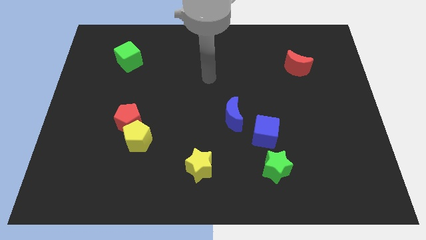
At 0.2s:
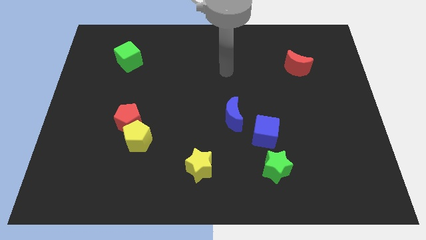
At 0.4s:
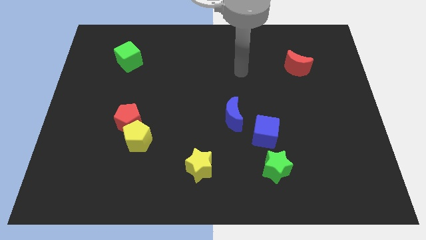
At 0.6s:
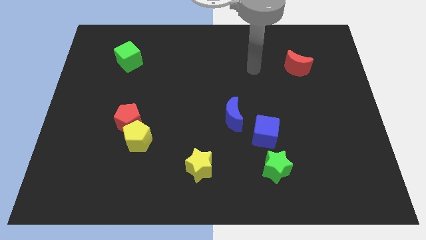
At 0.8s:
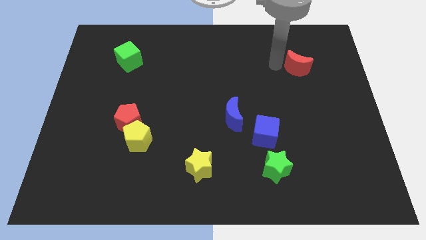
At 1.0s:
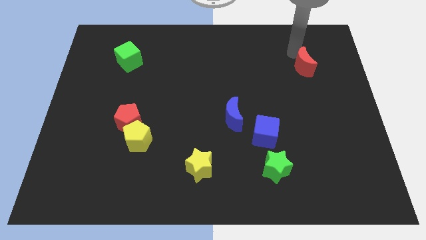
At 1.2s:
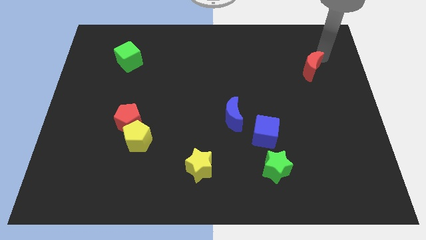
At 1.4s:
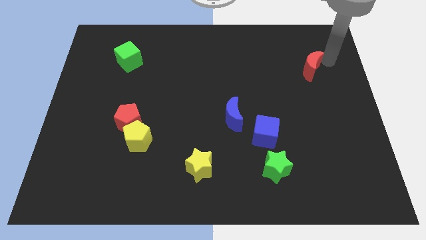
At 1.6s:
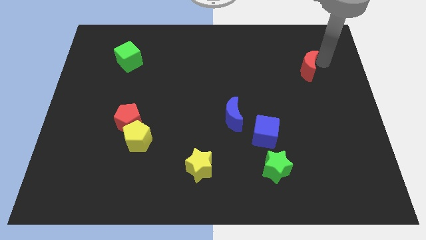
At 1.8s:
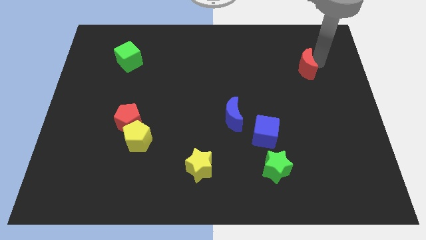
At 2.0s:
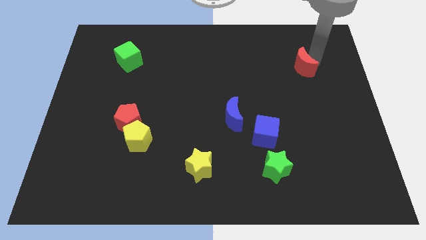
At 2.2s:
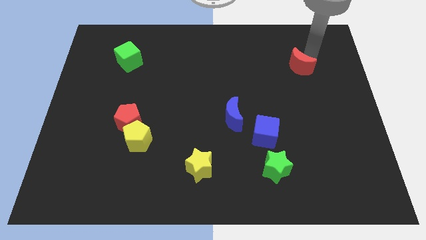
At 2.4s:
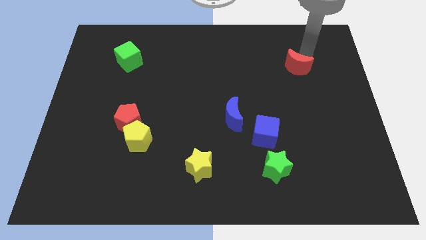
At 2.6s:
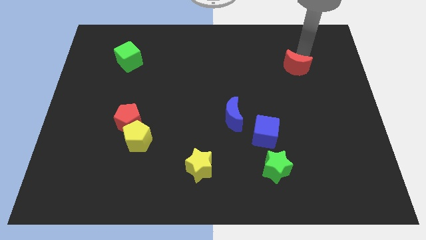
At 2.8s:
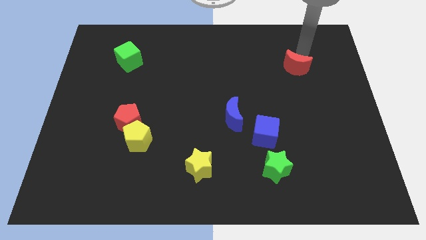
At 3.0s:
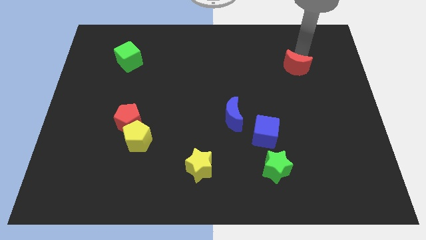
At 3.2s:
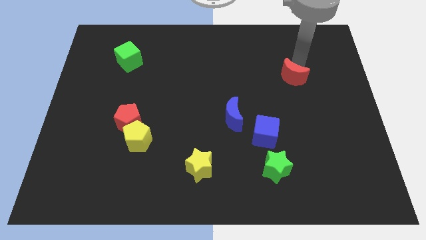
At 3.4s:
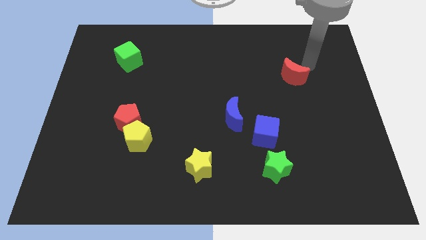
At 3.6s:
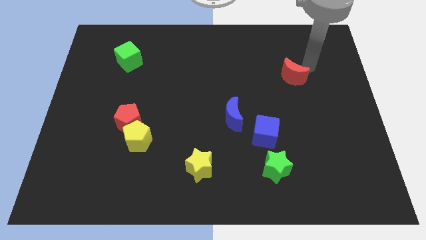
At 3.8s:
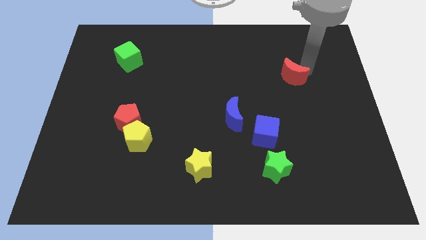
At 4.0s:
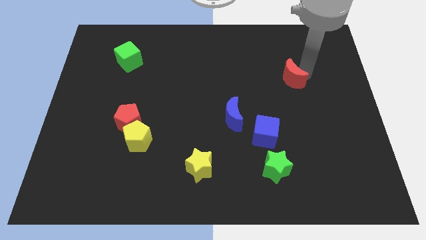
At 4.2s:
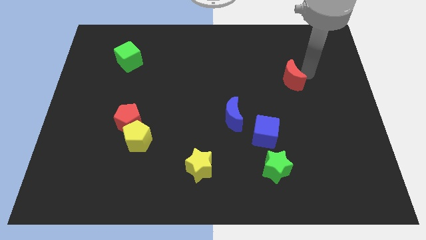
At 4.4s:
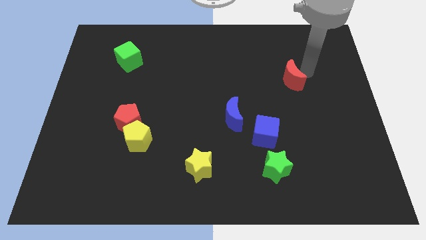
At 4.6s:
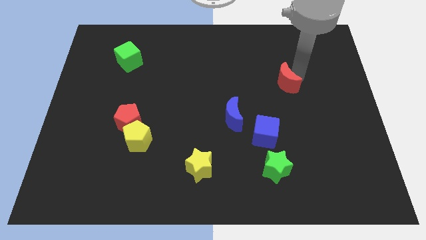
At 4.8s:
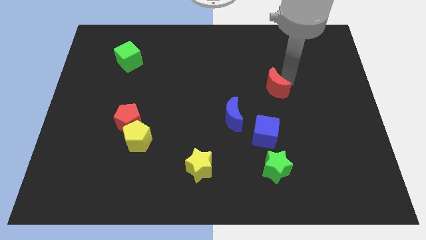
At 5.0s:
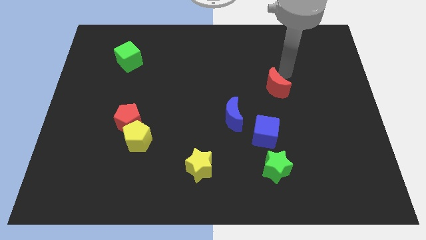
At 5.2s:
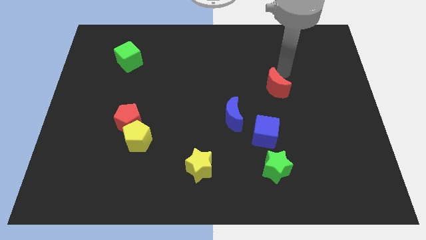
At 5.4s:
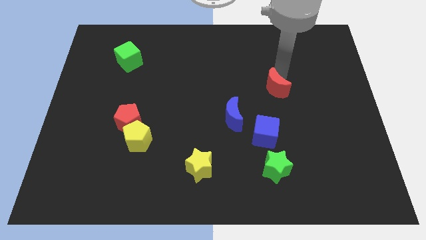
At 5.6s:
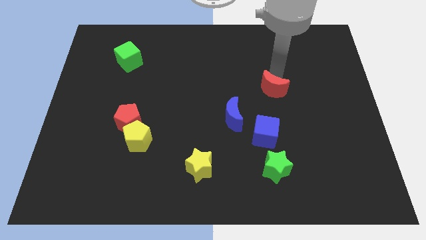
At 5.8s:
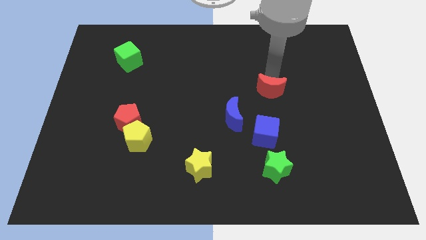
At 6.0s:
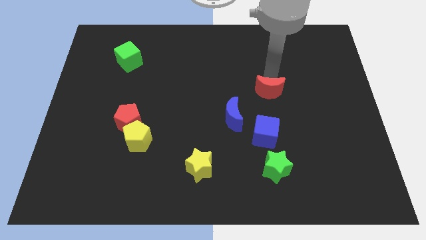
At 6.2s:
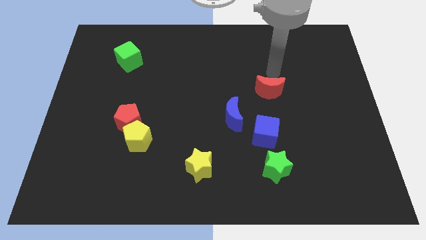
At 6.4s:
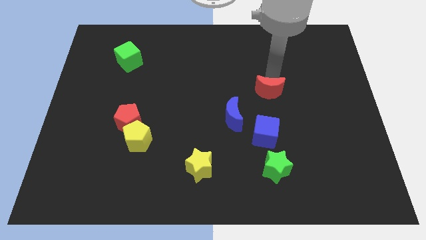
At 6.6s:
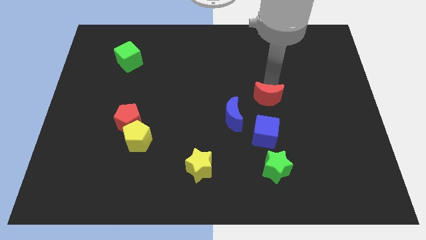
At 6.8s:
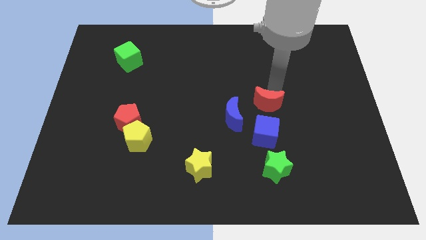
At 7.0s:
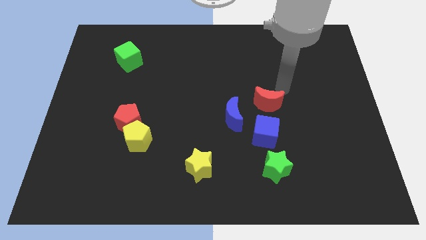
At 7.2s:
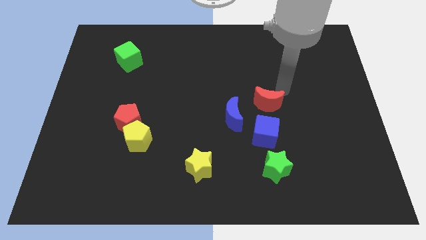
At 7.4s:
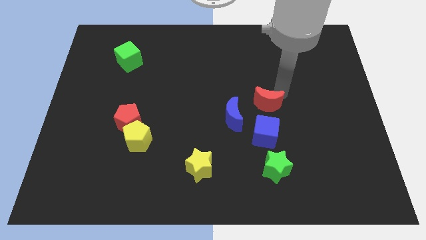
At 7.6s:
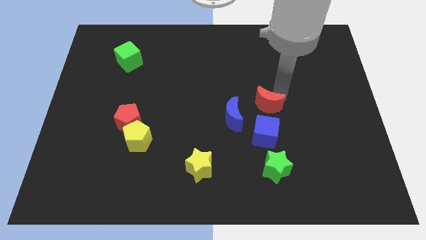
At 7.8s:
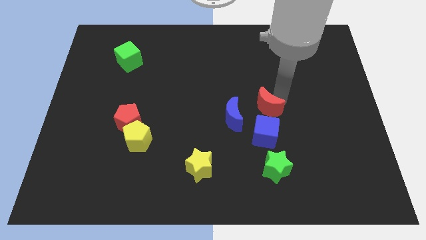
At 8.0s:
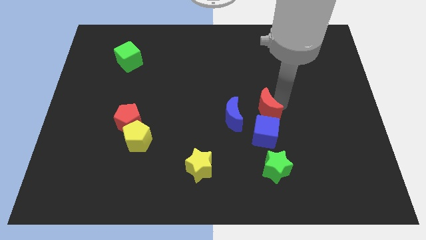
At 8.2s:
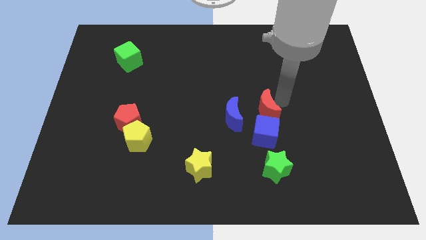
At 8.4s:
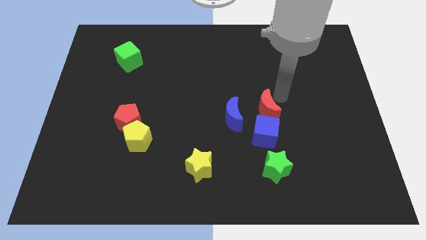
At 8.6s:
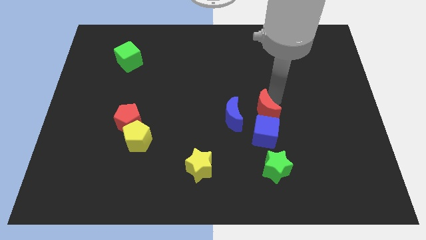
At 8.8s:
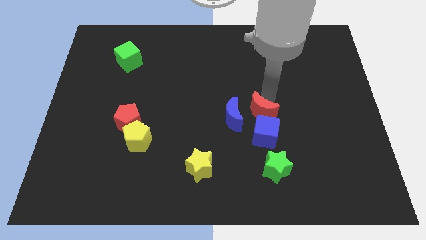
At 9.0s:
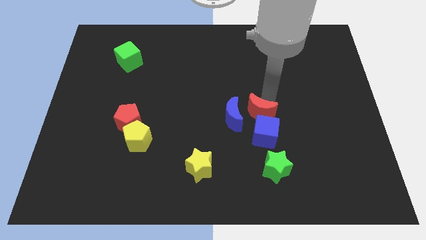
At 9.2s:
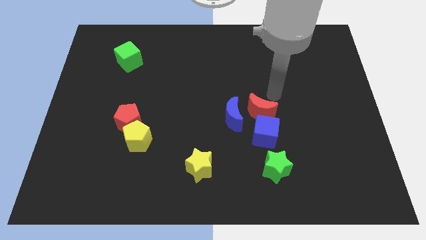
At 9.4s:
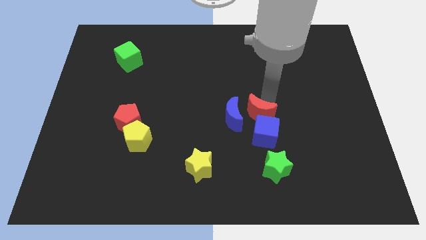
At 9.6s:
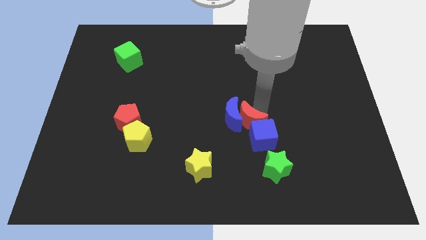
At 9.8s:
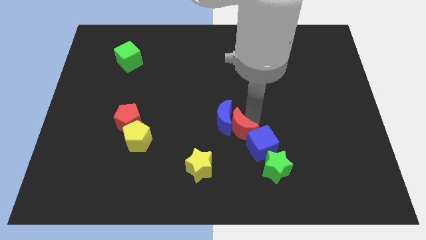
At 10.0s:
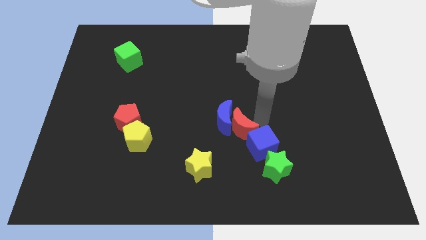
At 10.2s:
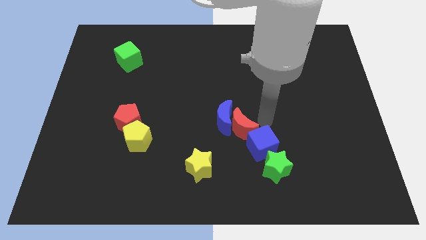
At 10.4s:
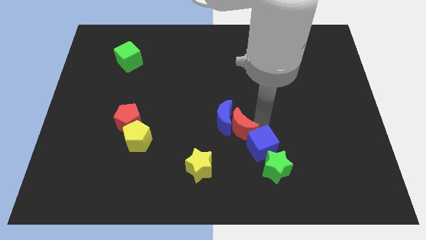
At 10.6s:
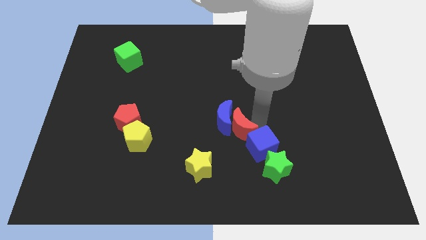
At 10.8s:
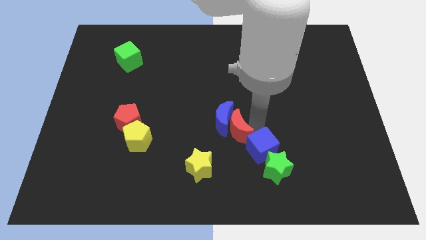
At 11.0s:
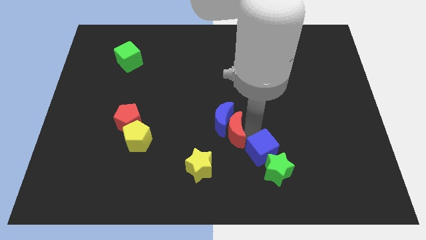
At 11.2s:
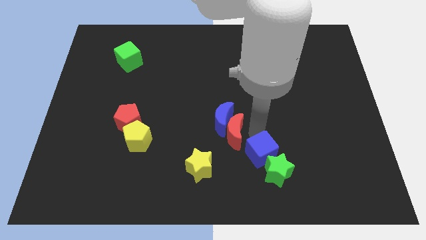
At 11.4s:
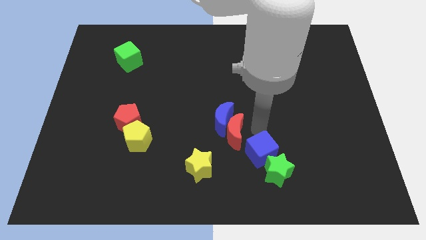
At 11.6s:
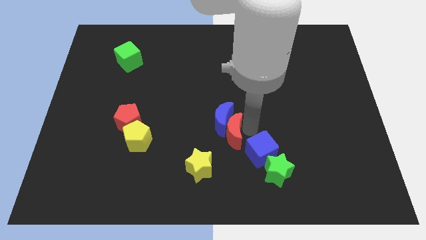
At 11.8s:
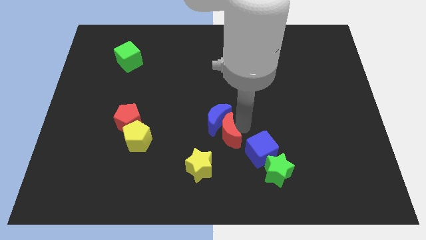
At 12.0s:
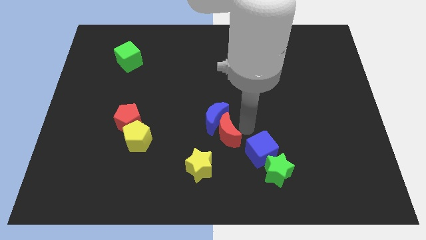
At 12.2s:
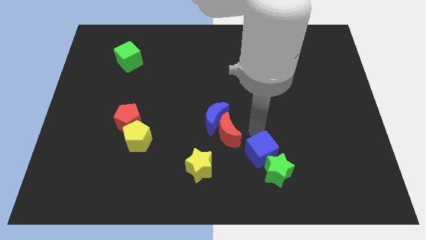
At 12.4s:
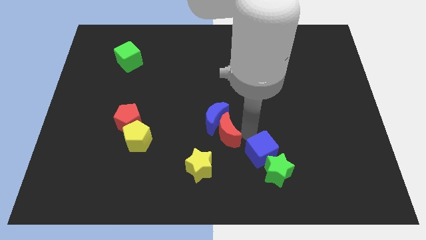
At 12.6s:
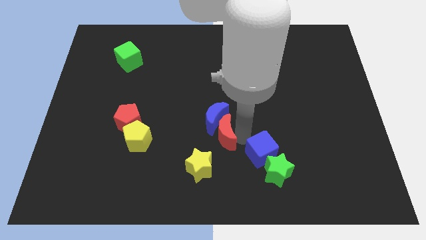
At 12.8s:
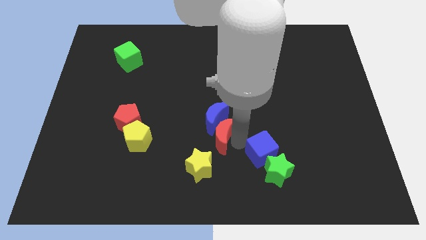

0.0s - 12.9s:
slide the red moon to the bottom left side of the blue moon
